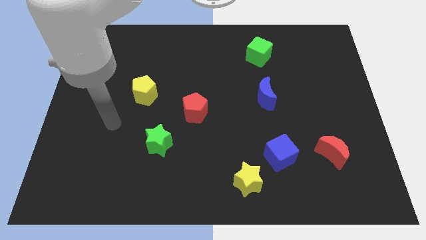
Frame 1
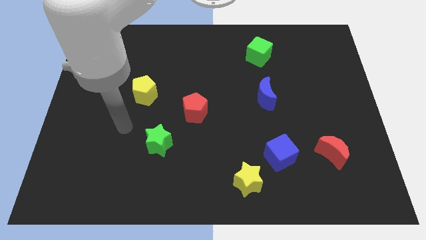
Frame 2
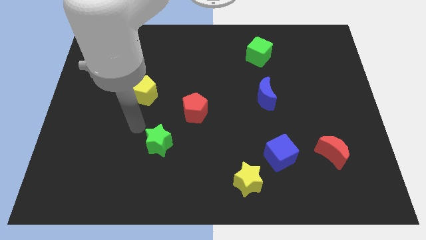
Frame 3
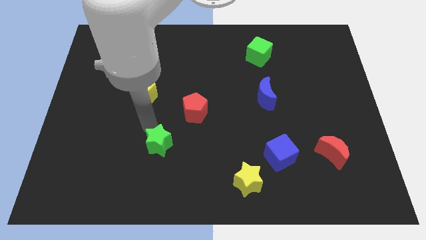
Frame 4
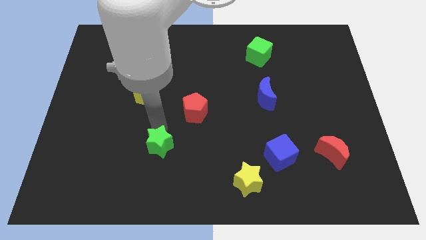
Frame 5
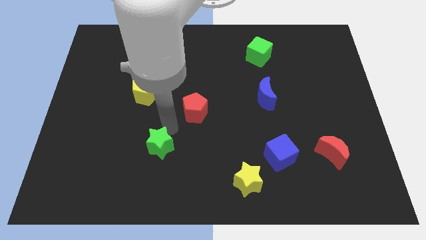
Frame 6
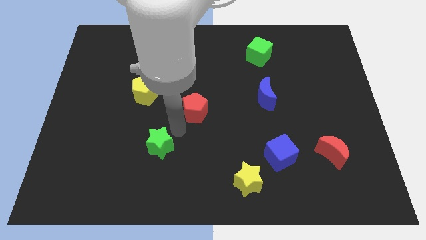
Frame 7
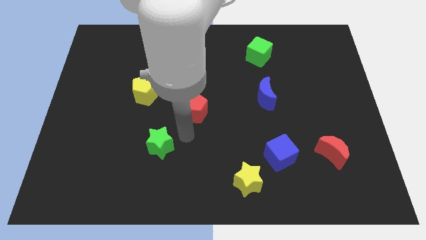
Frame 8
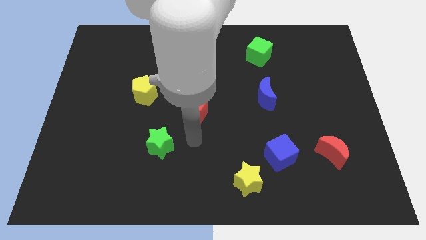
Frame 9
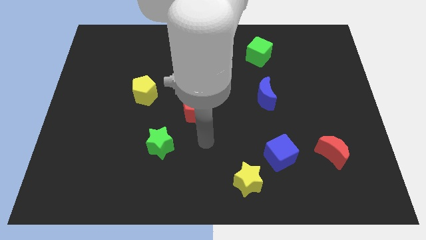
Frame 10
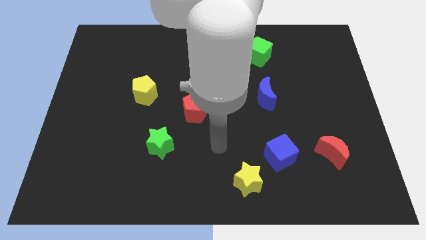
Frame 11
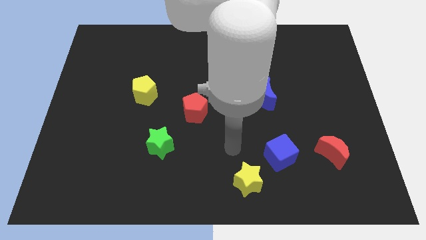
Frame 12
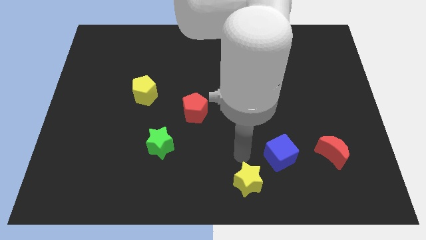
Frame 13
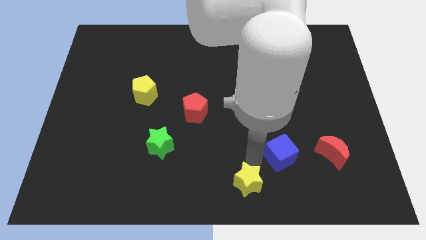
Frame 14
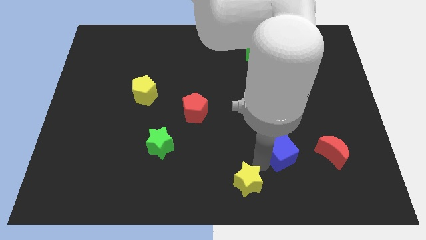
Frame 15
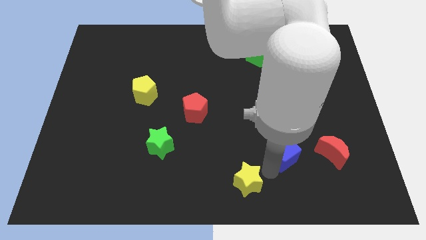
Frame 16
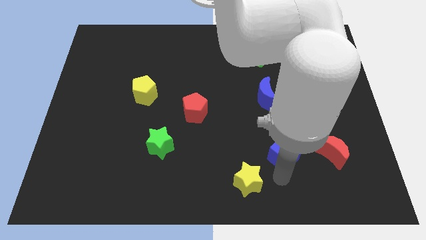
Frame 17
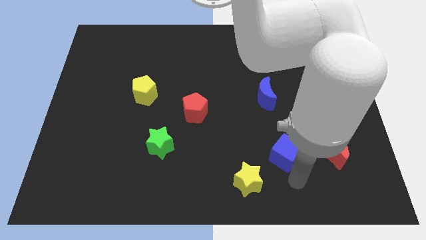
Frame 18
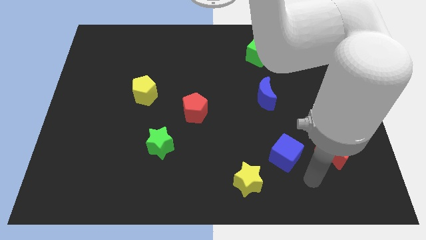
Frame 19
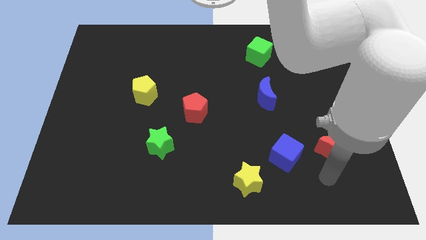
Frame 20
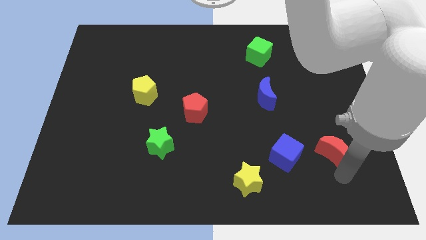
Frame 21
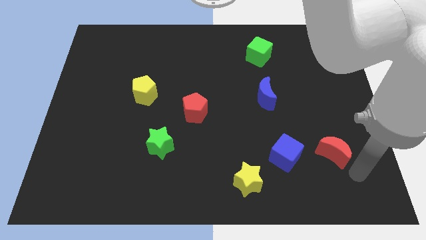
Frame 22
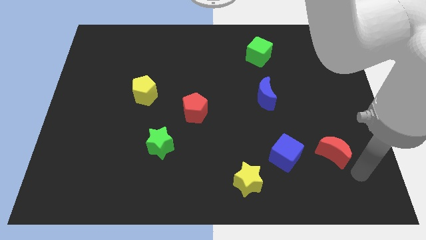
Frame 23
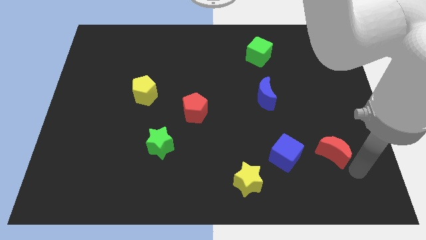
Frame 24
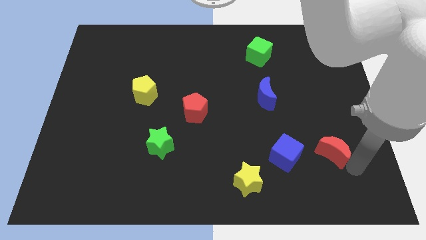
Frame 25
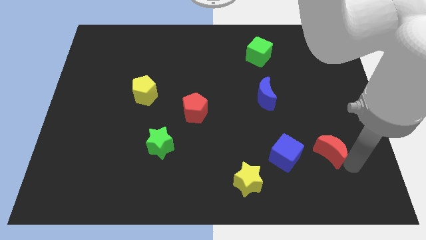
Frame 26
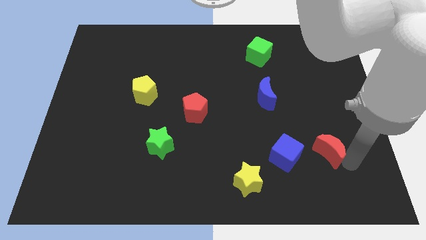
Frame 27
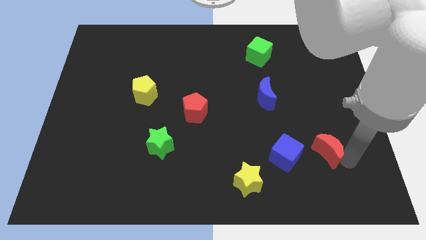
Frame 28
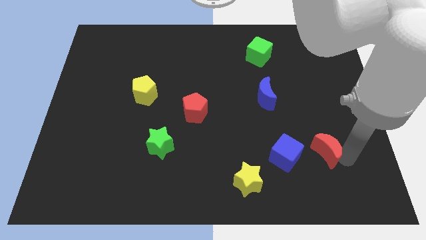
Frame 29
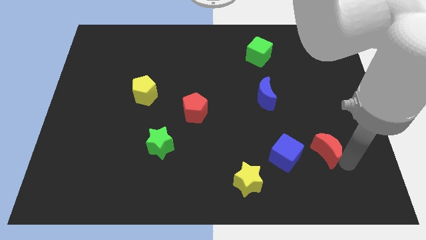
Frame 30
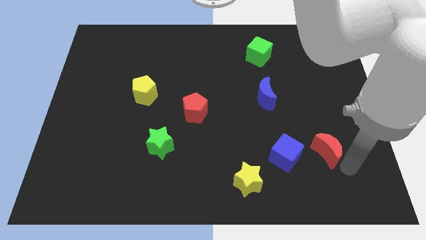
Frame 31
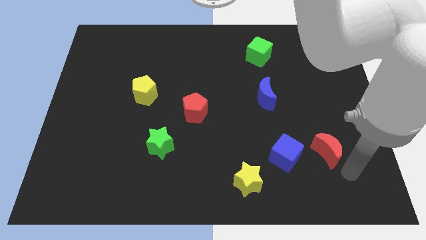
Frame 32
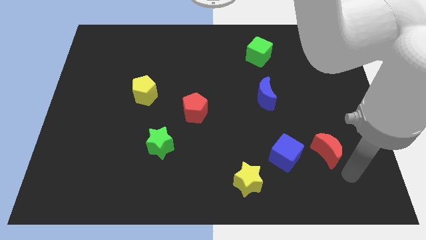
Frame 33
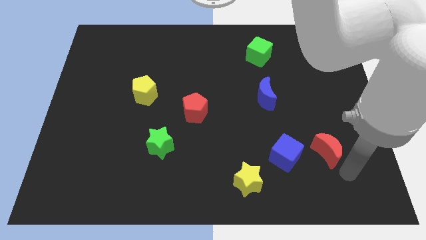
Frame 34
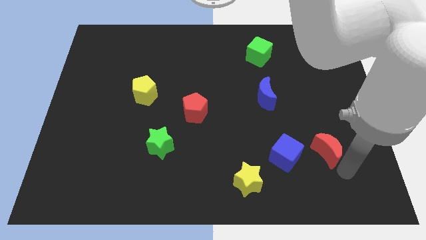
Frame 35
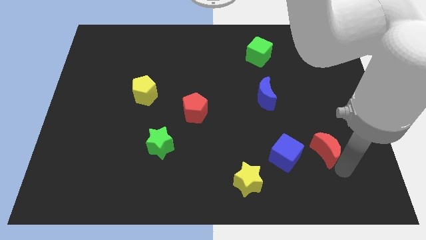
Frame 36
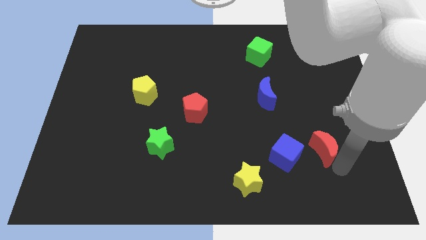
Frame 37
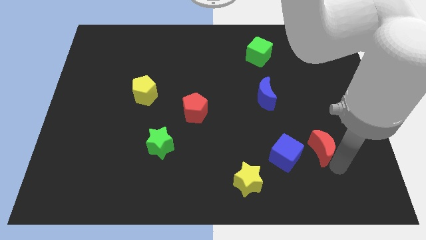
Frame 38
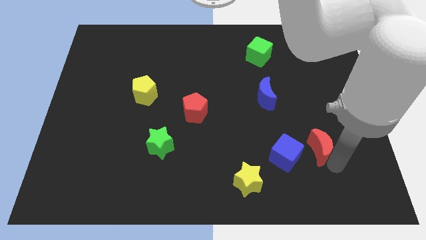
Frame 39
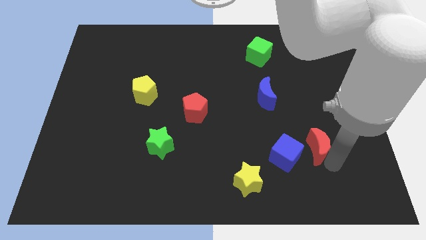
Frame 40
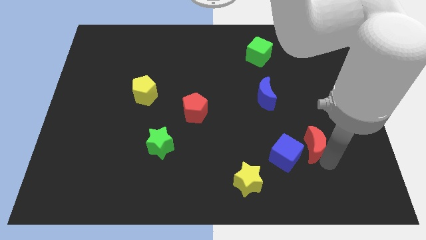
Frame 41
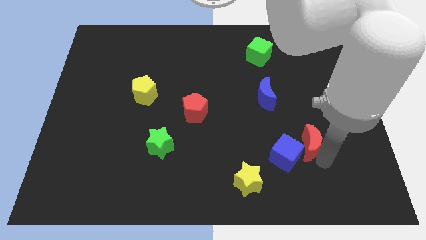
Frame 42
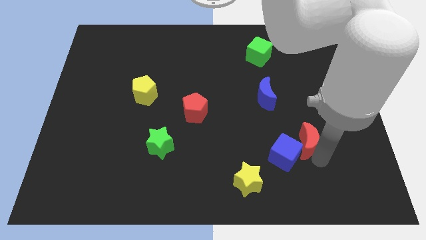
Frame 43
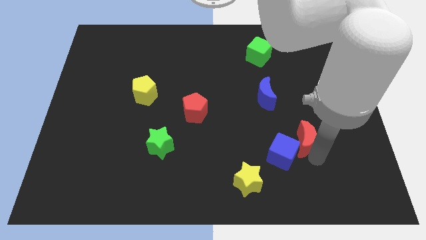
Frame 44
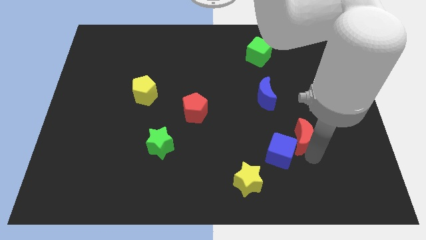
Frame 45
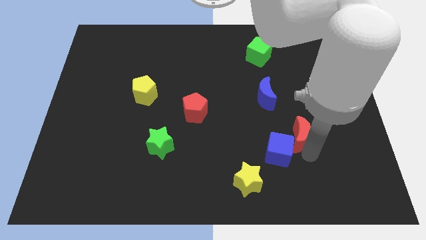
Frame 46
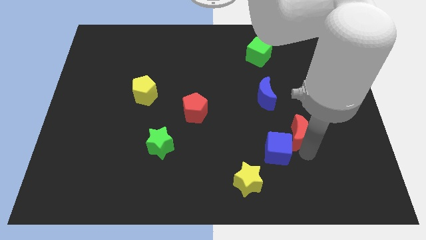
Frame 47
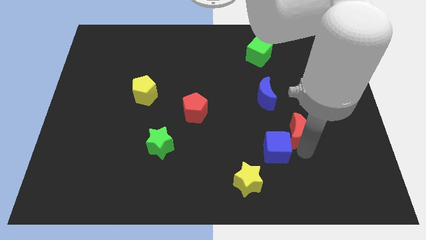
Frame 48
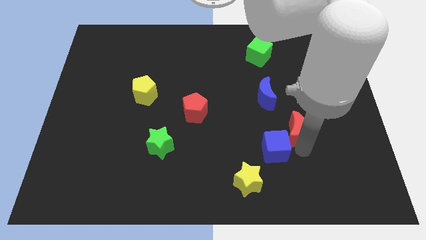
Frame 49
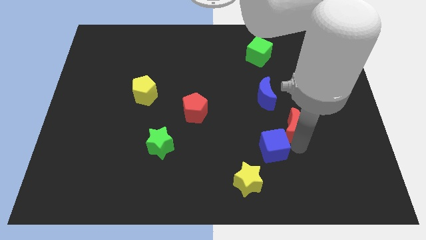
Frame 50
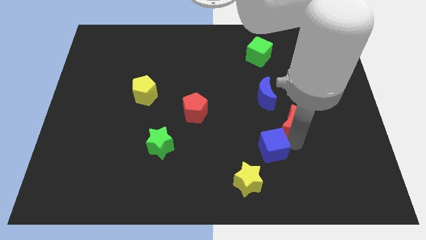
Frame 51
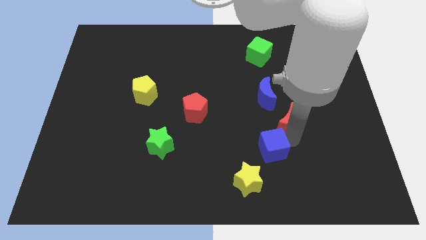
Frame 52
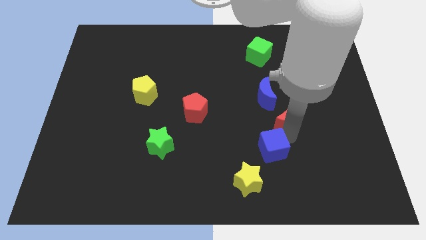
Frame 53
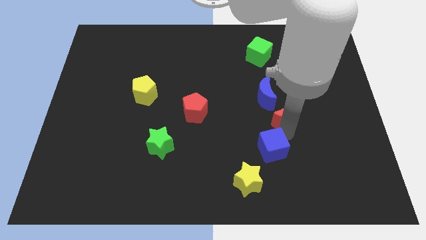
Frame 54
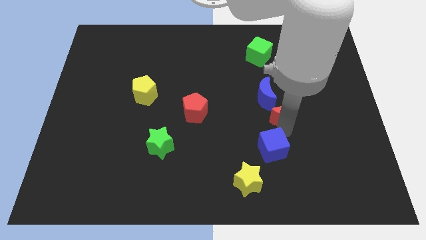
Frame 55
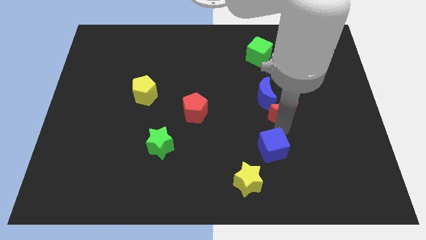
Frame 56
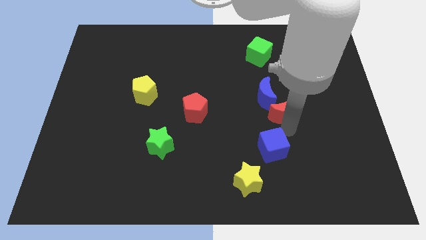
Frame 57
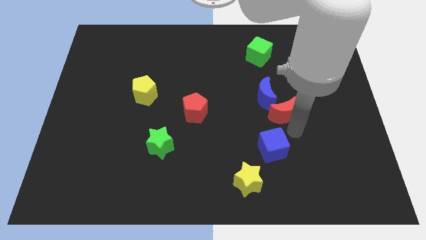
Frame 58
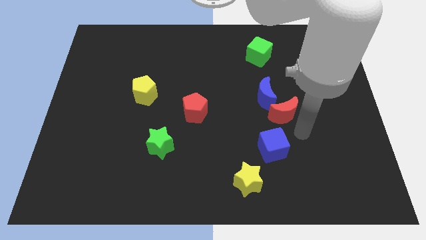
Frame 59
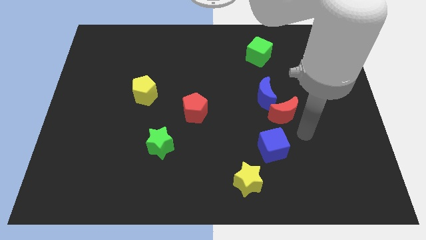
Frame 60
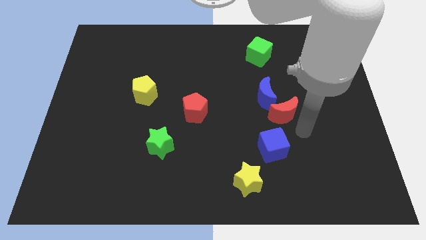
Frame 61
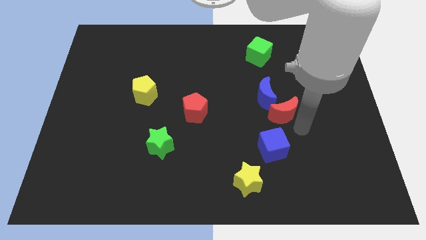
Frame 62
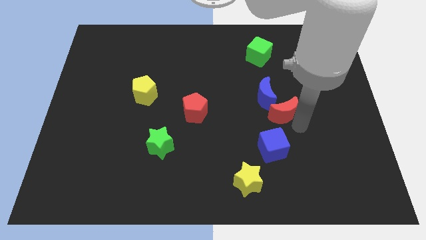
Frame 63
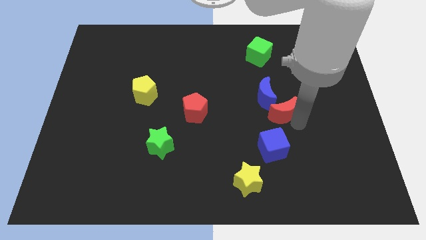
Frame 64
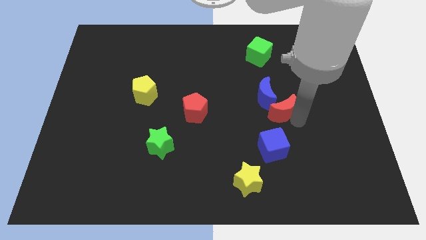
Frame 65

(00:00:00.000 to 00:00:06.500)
push the red moon next to the blue moon

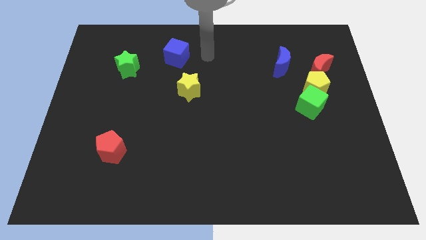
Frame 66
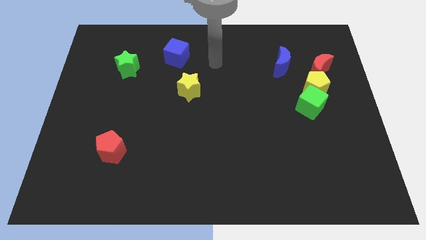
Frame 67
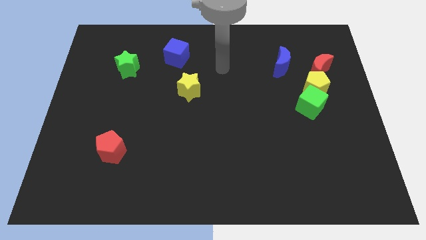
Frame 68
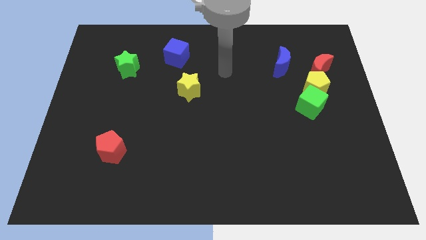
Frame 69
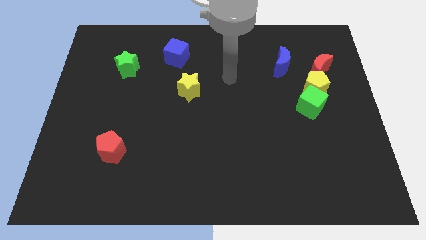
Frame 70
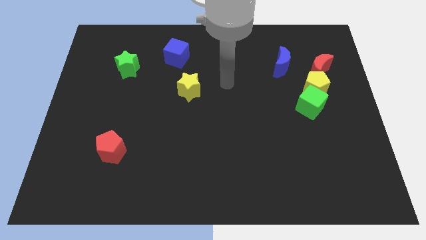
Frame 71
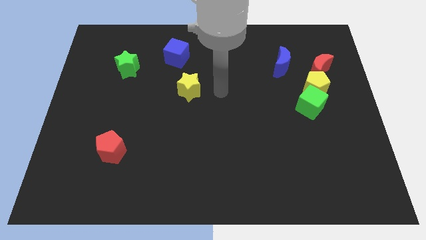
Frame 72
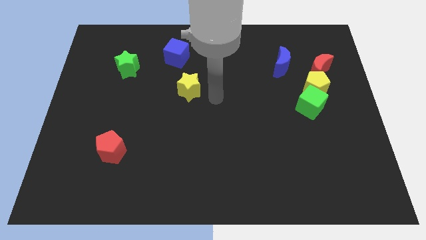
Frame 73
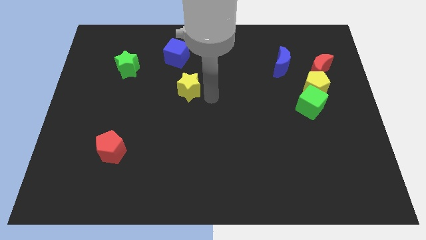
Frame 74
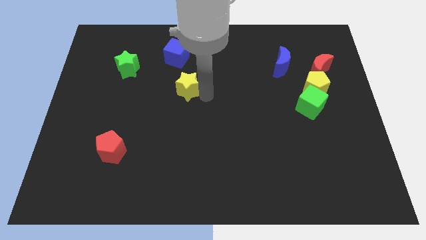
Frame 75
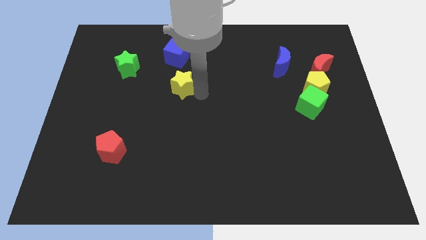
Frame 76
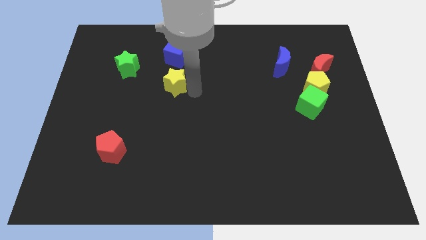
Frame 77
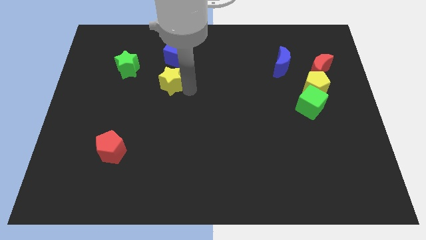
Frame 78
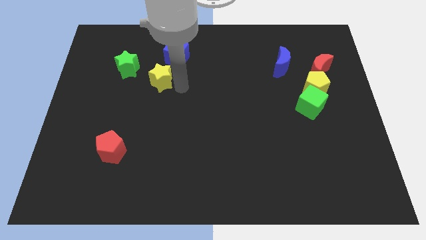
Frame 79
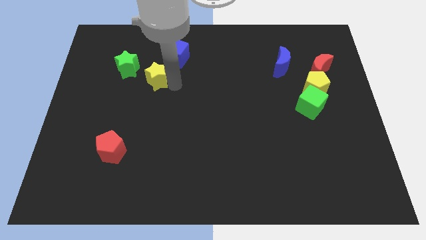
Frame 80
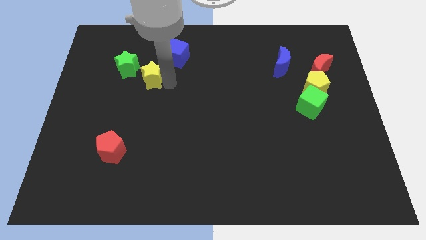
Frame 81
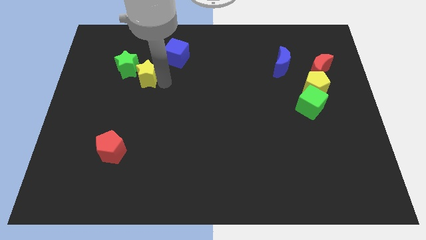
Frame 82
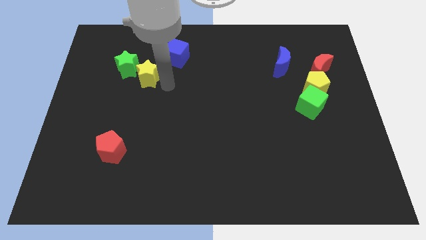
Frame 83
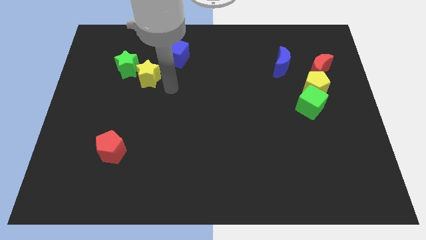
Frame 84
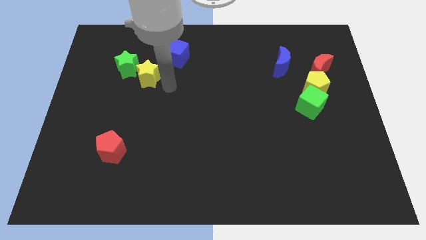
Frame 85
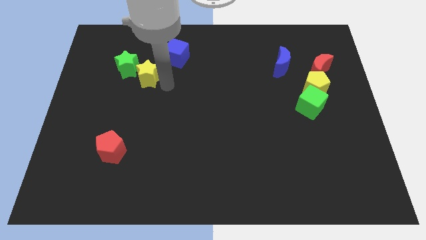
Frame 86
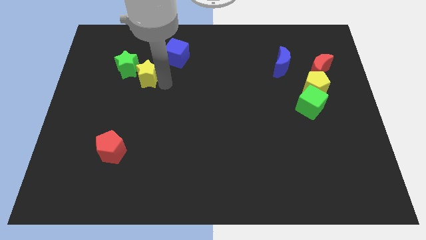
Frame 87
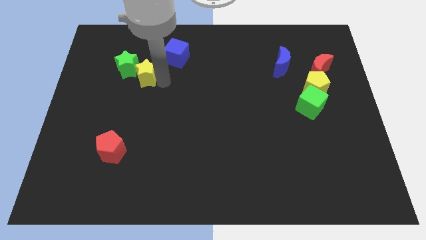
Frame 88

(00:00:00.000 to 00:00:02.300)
push the yellow star next to the green star
